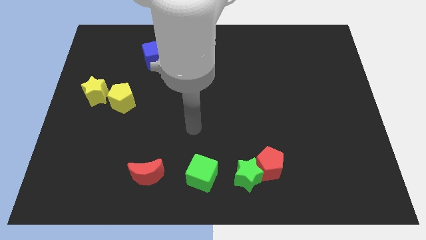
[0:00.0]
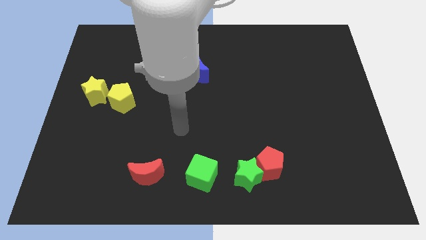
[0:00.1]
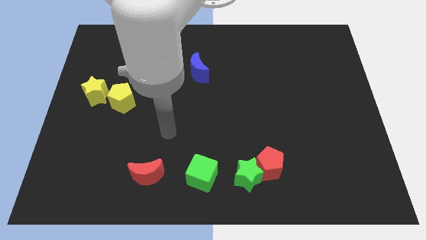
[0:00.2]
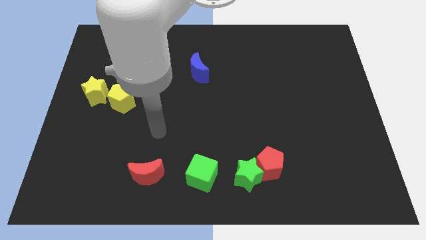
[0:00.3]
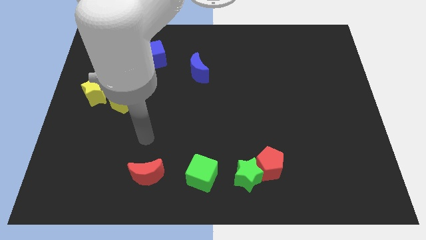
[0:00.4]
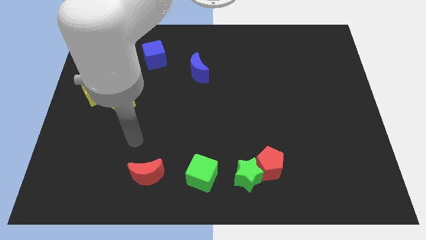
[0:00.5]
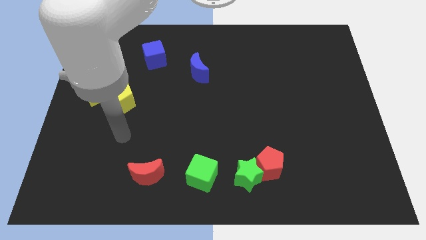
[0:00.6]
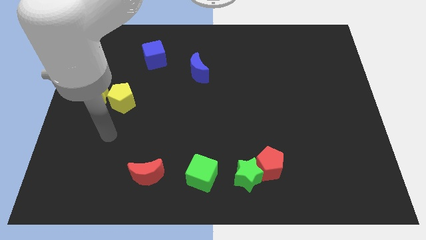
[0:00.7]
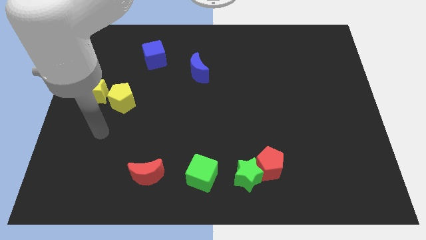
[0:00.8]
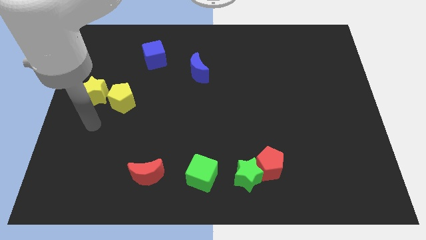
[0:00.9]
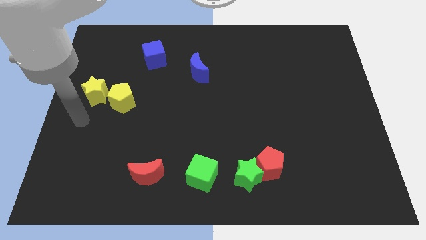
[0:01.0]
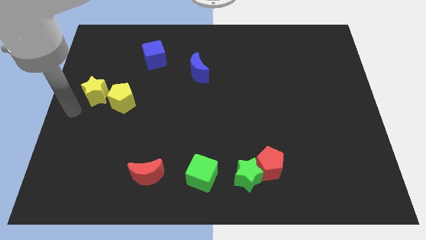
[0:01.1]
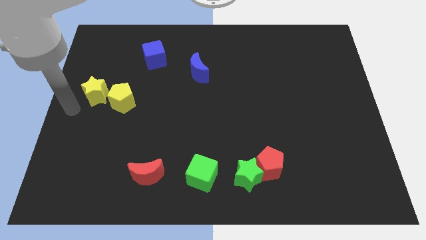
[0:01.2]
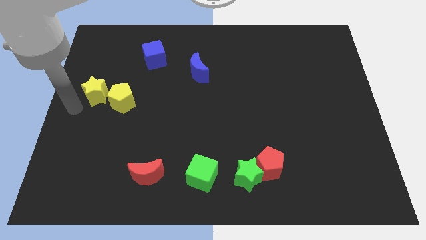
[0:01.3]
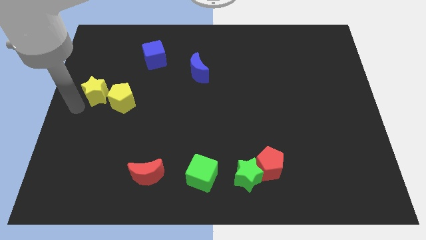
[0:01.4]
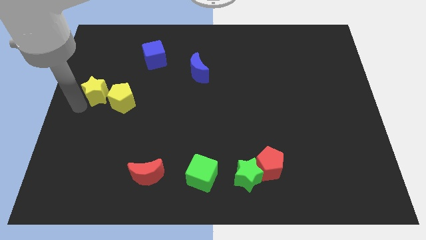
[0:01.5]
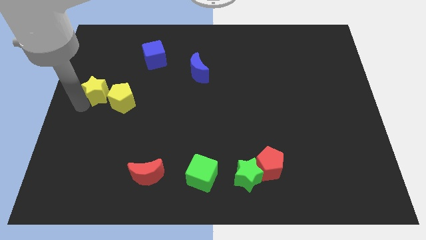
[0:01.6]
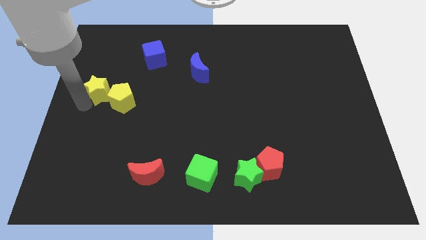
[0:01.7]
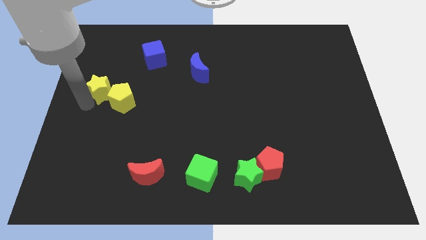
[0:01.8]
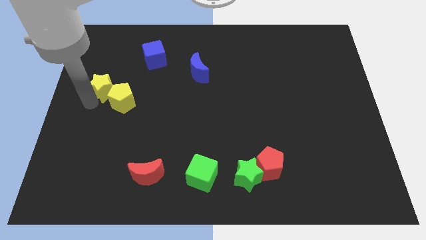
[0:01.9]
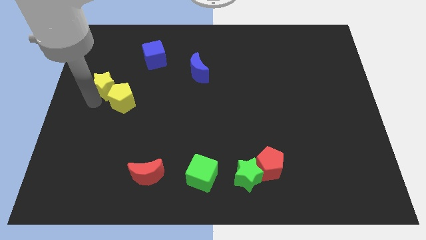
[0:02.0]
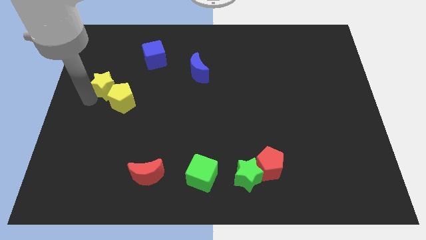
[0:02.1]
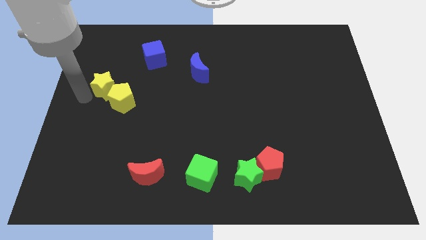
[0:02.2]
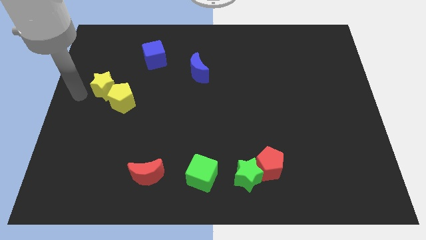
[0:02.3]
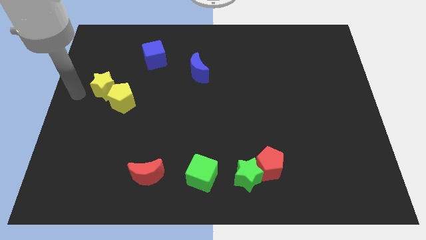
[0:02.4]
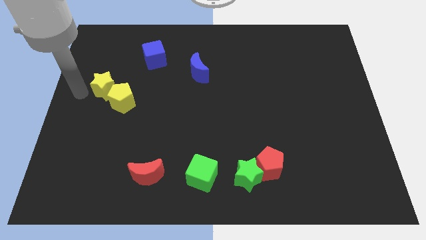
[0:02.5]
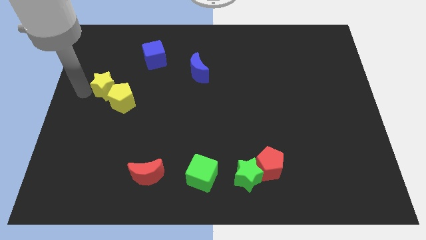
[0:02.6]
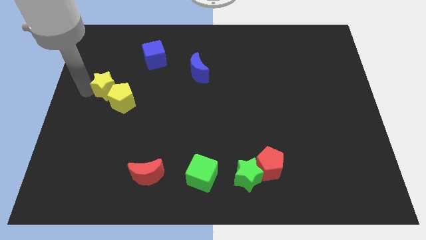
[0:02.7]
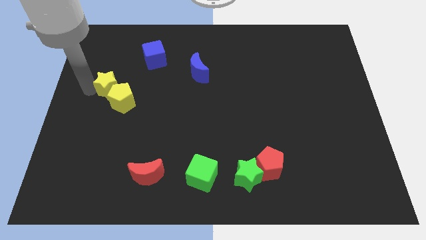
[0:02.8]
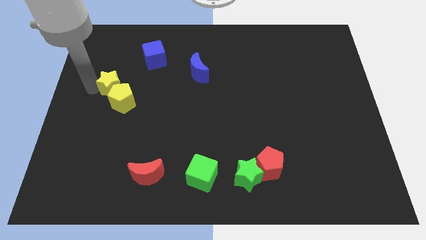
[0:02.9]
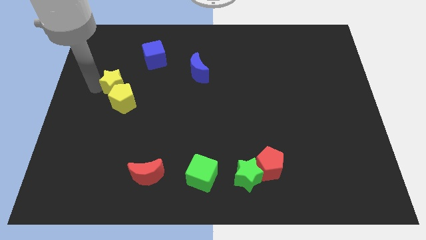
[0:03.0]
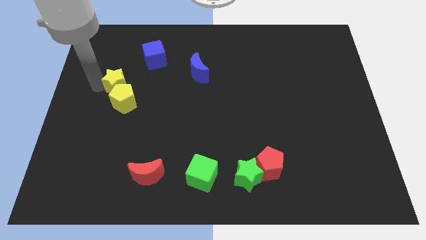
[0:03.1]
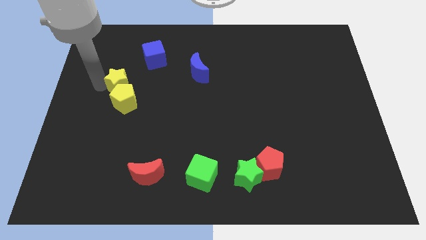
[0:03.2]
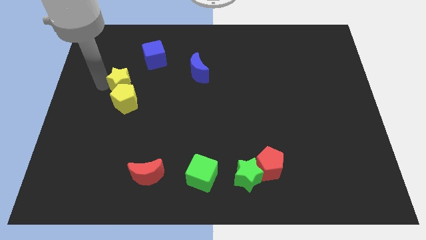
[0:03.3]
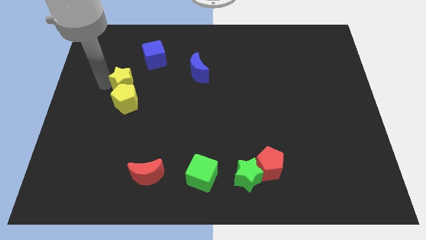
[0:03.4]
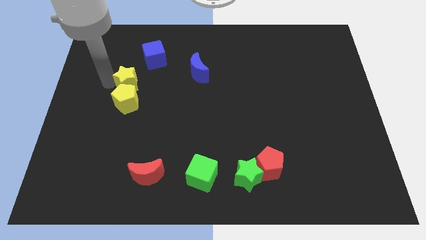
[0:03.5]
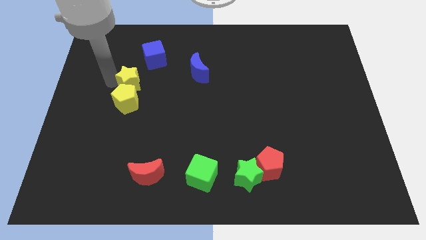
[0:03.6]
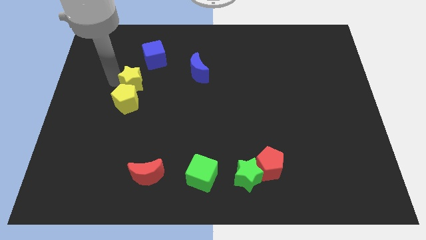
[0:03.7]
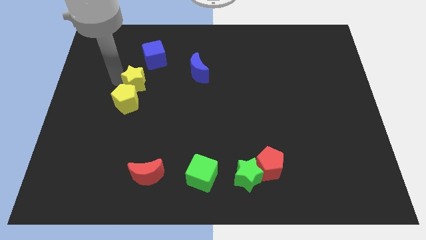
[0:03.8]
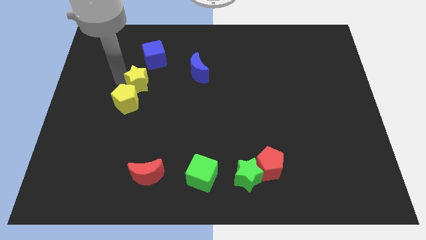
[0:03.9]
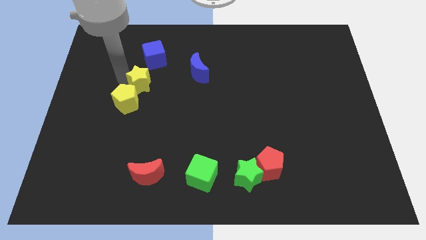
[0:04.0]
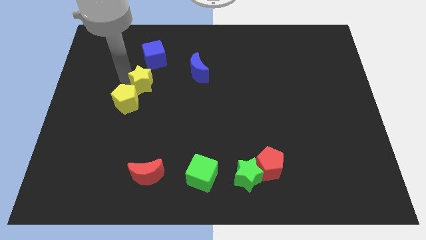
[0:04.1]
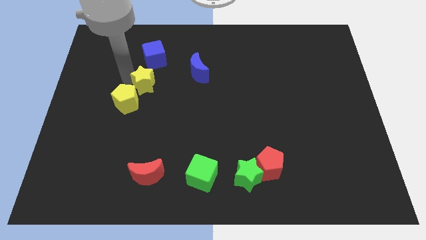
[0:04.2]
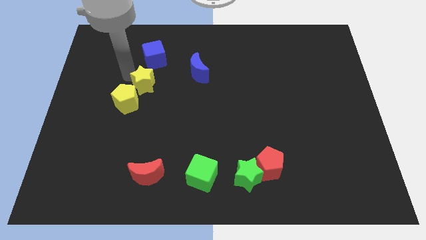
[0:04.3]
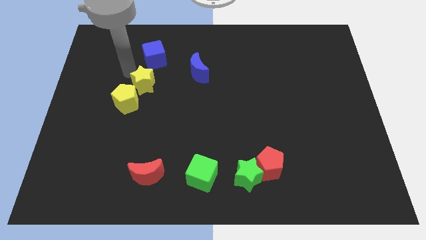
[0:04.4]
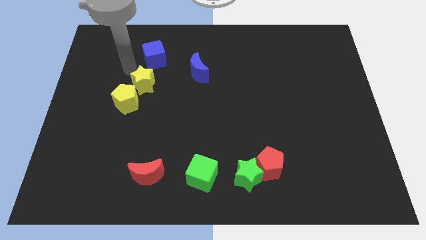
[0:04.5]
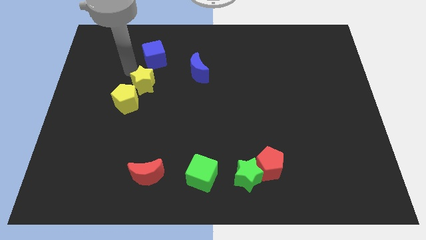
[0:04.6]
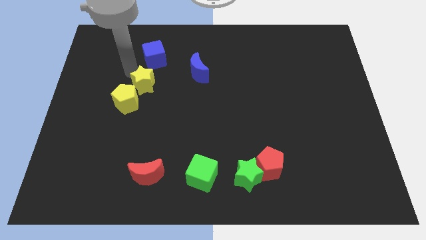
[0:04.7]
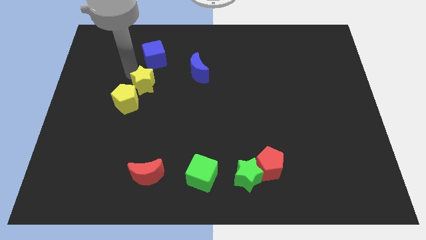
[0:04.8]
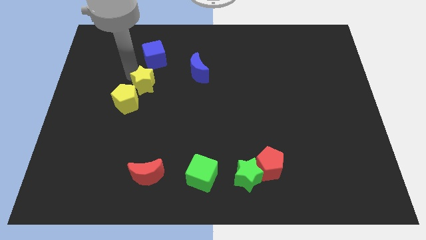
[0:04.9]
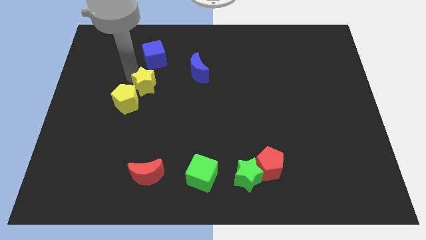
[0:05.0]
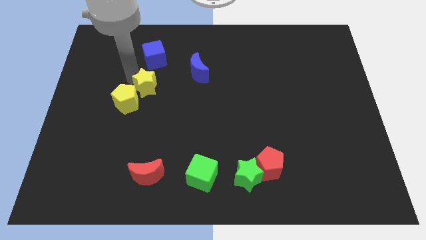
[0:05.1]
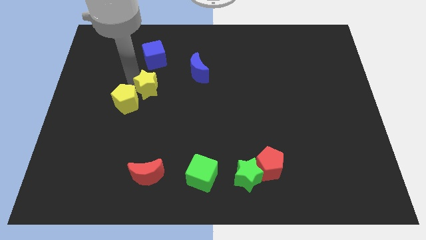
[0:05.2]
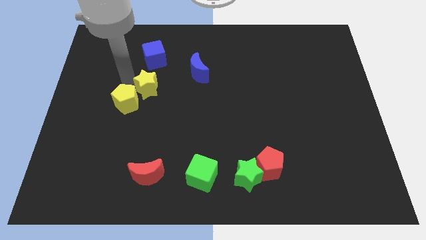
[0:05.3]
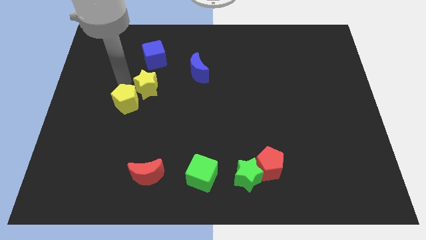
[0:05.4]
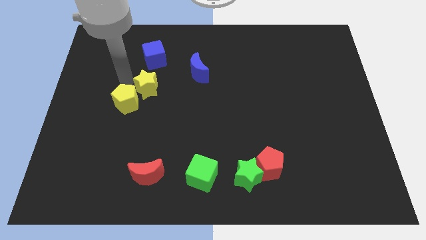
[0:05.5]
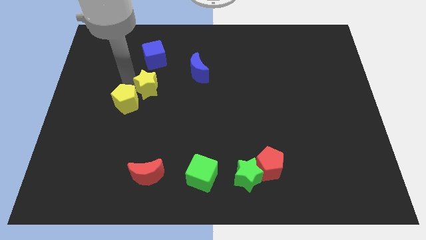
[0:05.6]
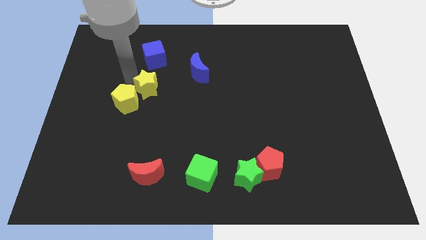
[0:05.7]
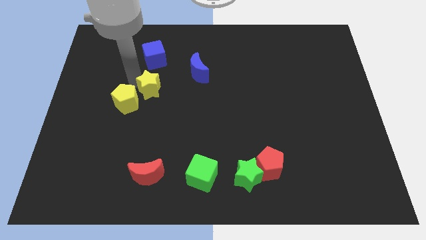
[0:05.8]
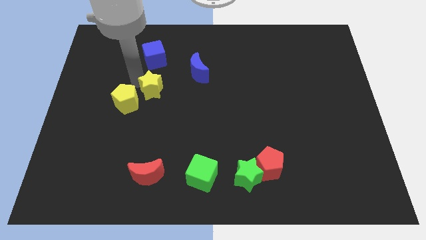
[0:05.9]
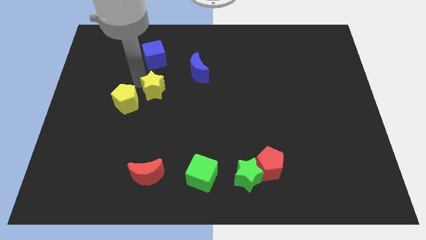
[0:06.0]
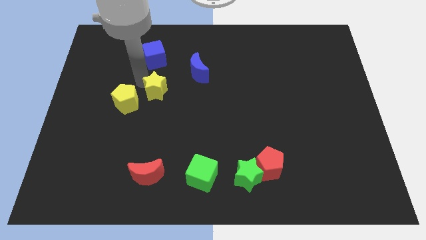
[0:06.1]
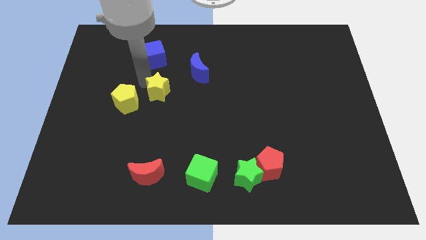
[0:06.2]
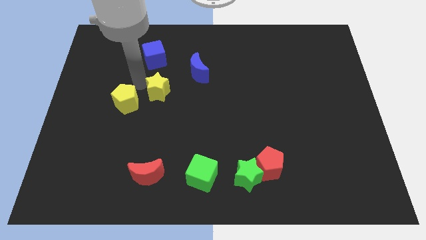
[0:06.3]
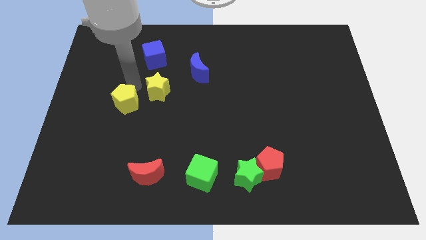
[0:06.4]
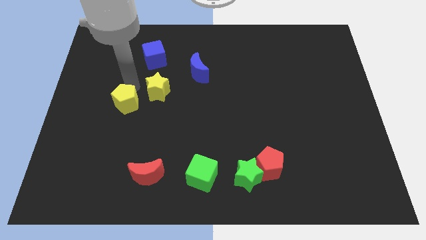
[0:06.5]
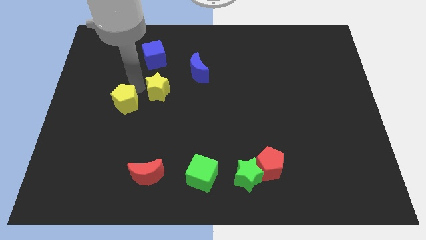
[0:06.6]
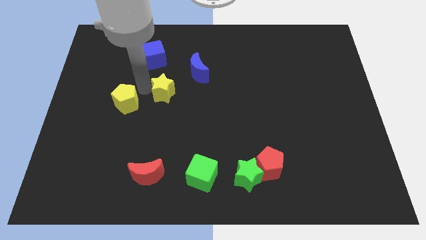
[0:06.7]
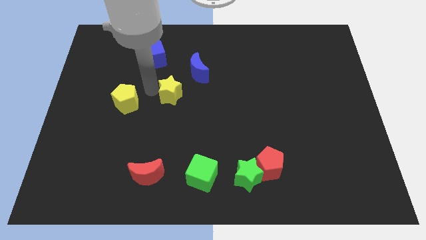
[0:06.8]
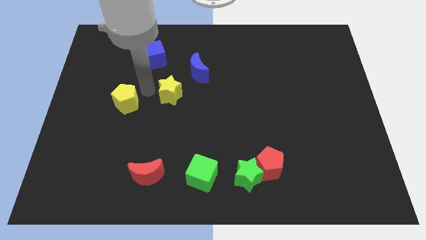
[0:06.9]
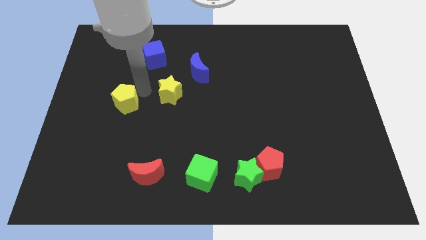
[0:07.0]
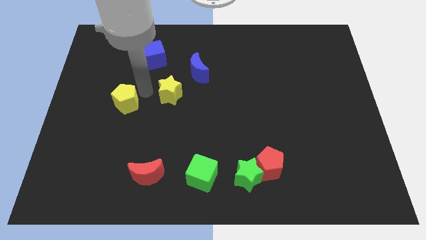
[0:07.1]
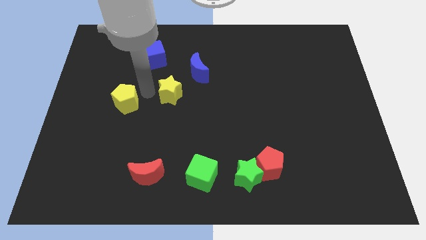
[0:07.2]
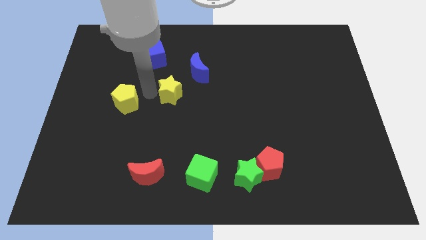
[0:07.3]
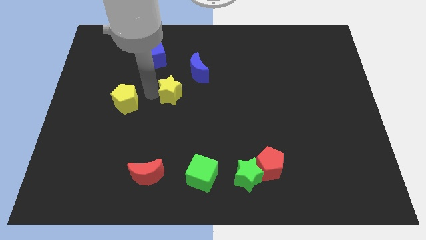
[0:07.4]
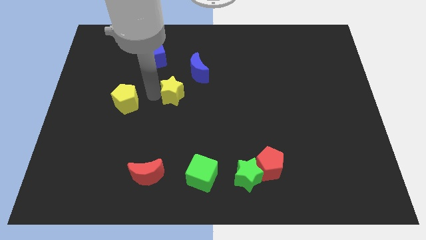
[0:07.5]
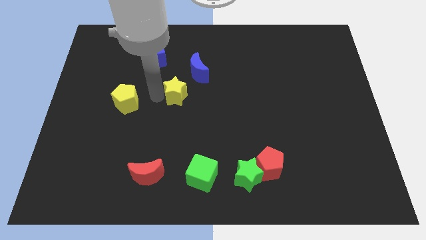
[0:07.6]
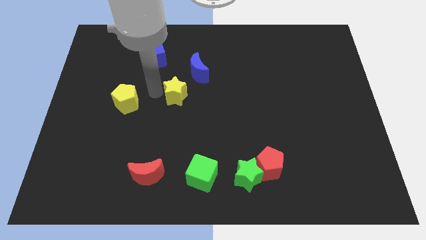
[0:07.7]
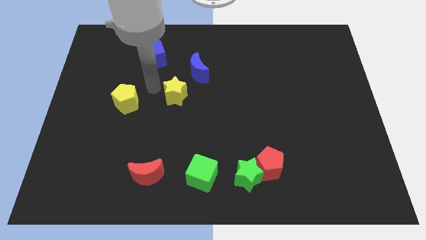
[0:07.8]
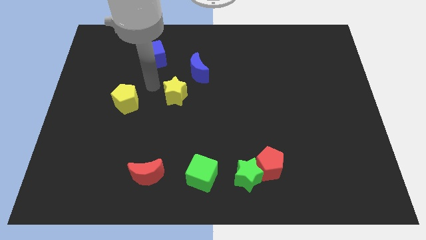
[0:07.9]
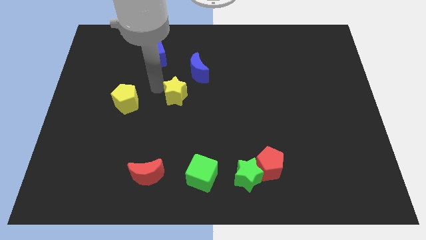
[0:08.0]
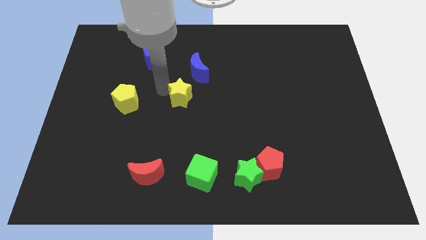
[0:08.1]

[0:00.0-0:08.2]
push the yellow star to the right
